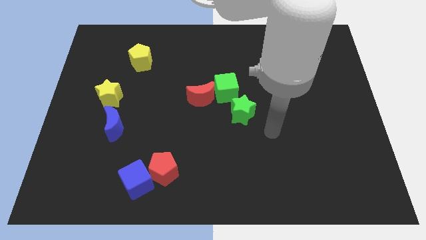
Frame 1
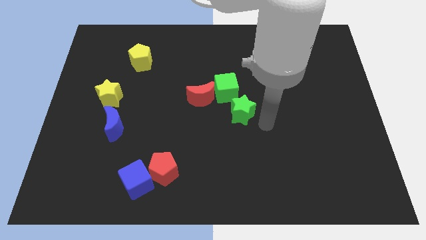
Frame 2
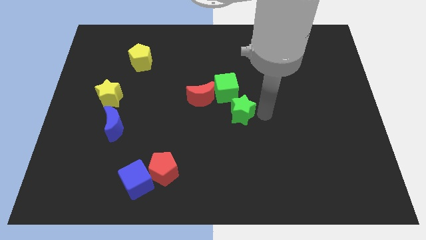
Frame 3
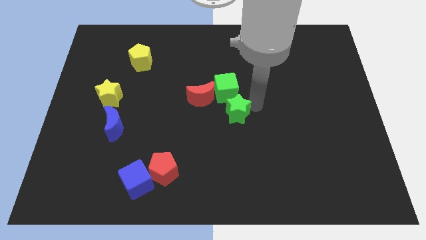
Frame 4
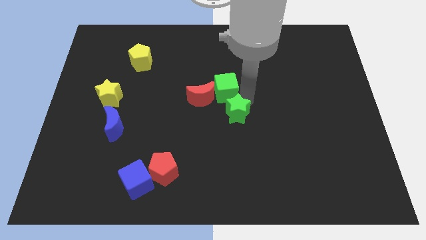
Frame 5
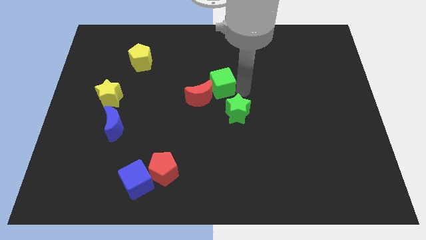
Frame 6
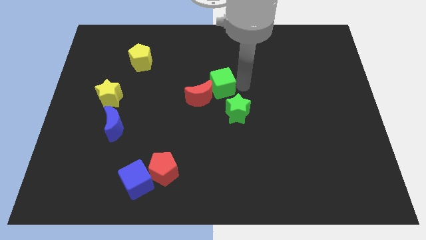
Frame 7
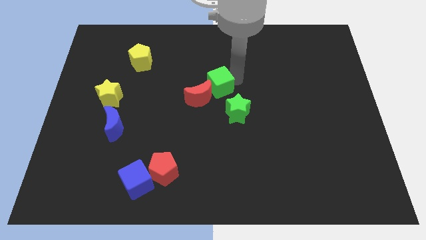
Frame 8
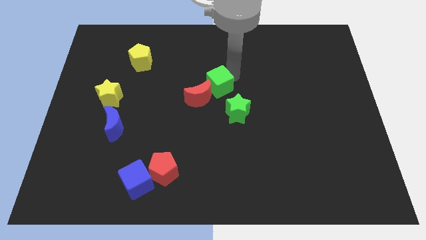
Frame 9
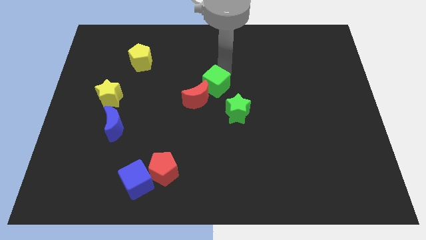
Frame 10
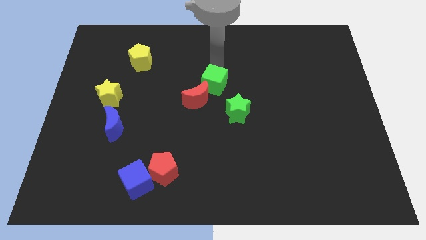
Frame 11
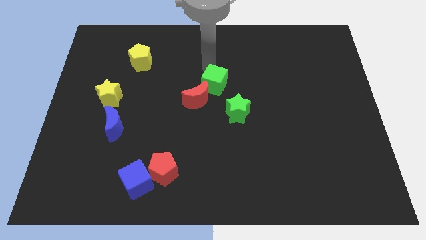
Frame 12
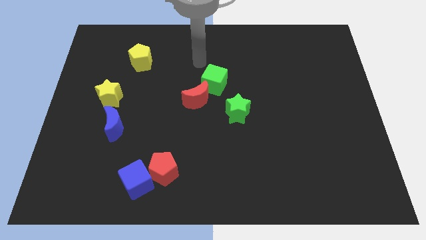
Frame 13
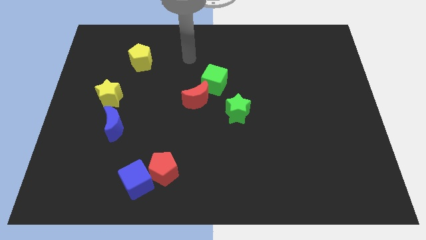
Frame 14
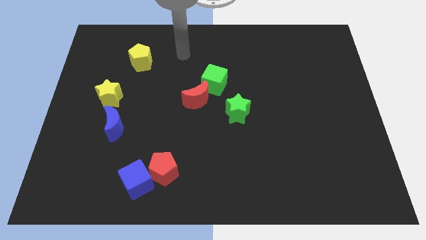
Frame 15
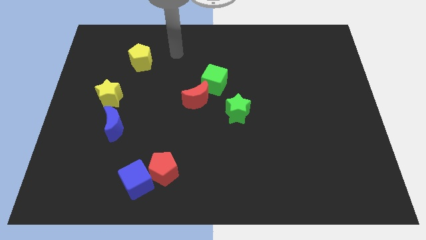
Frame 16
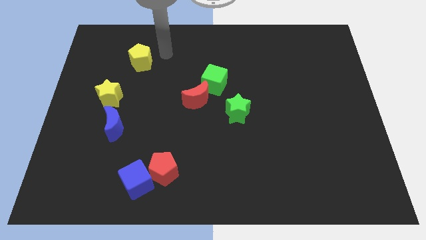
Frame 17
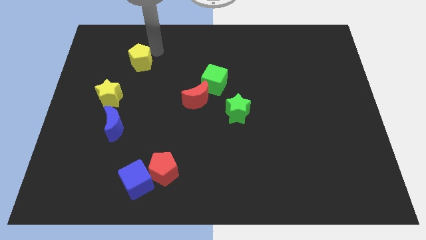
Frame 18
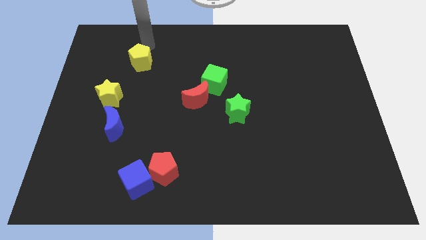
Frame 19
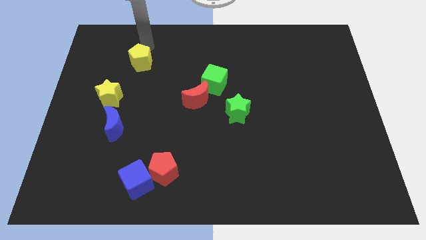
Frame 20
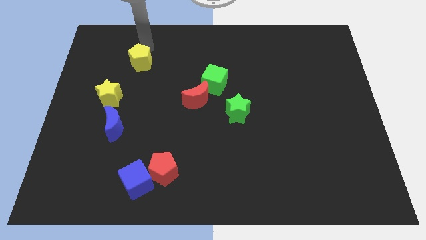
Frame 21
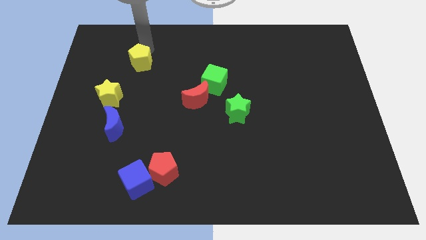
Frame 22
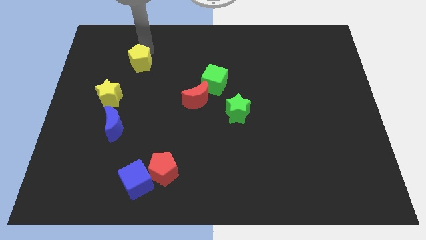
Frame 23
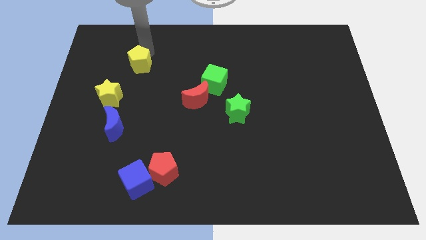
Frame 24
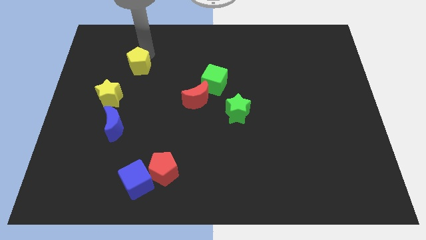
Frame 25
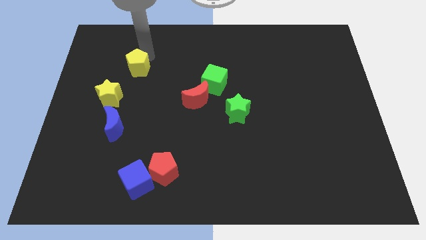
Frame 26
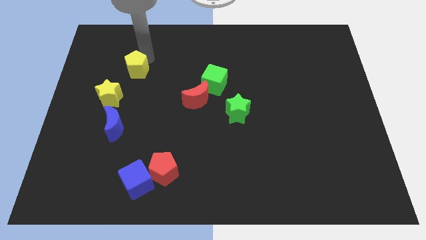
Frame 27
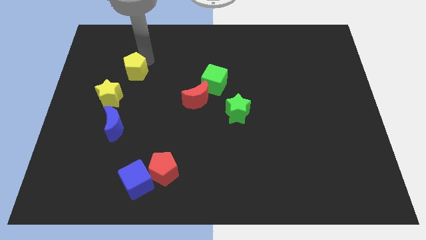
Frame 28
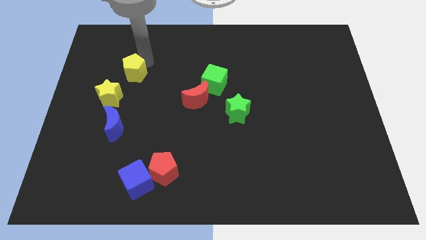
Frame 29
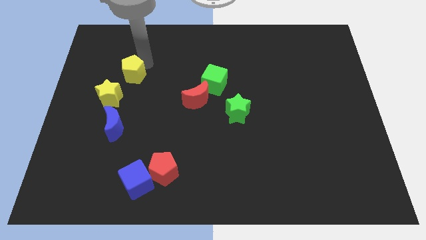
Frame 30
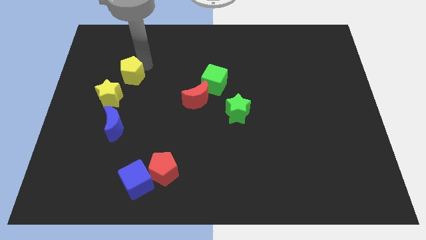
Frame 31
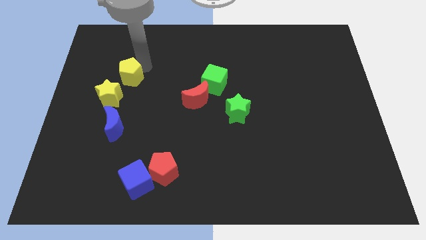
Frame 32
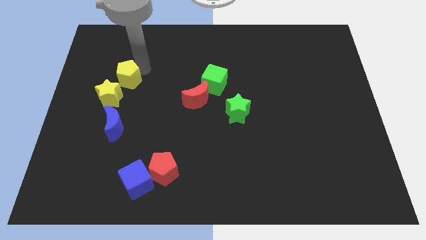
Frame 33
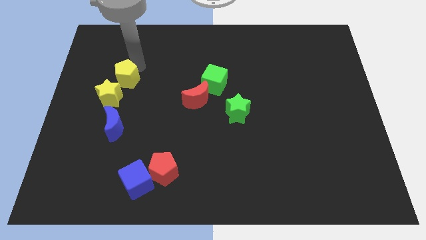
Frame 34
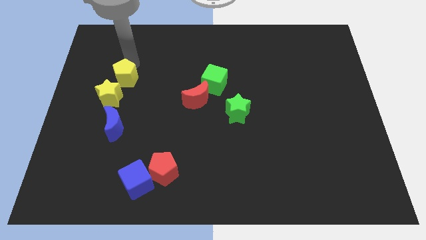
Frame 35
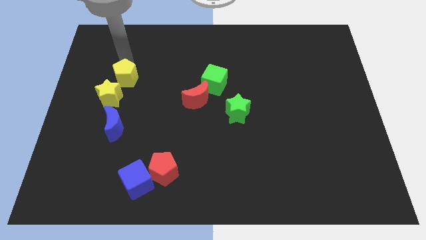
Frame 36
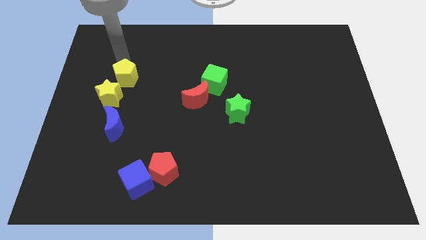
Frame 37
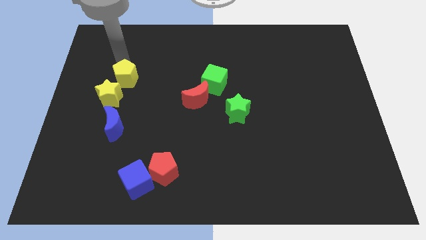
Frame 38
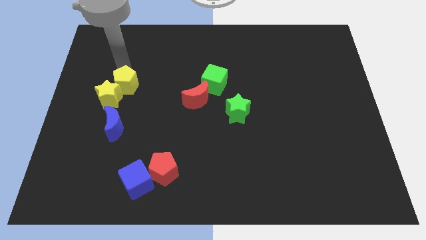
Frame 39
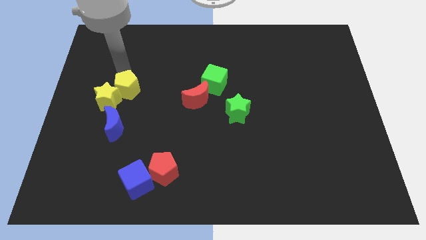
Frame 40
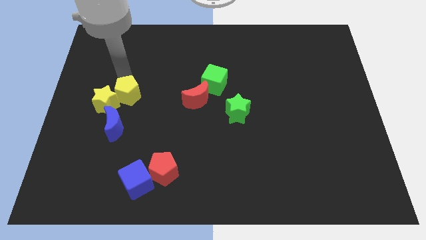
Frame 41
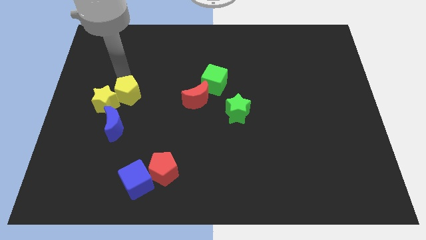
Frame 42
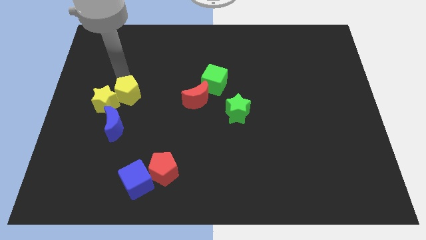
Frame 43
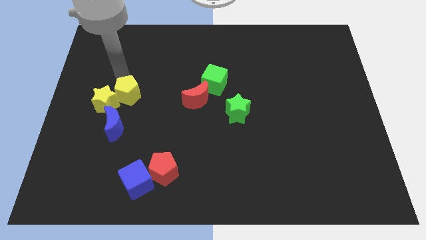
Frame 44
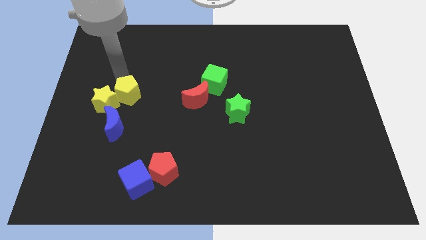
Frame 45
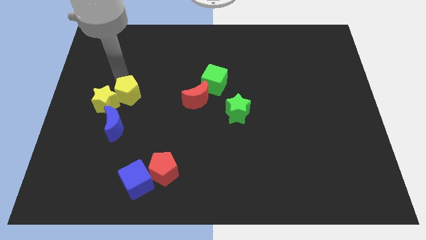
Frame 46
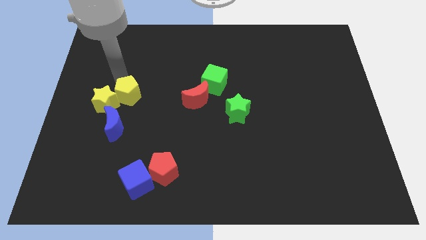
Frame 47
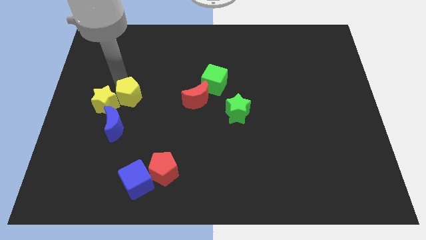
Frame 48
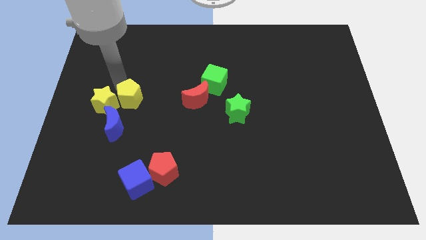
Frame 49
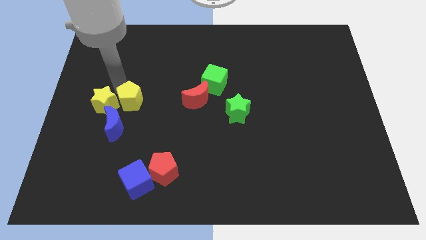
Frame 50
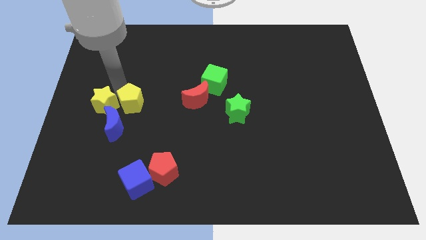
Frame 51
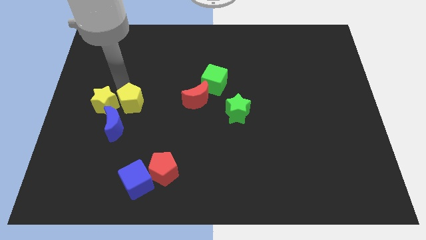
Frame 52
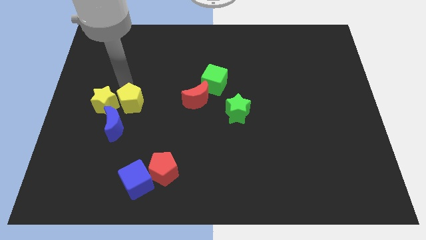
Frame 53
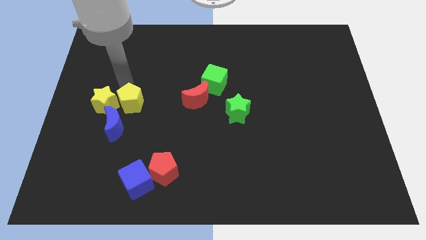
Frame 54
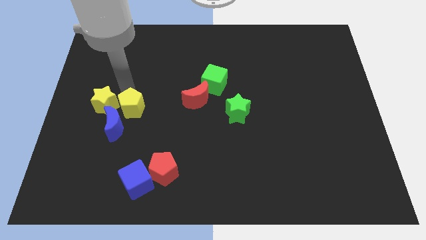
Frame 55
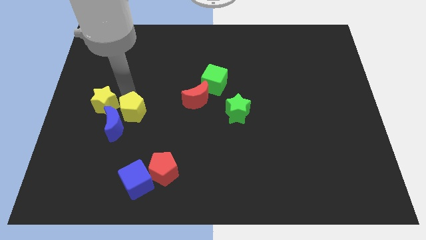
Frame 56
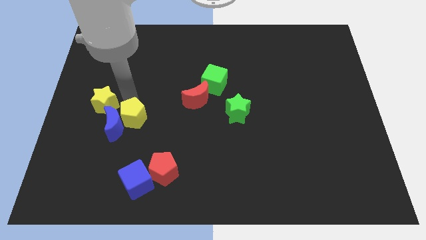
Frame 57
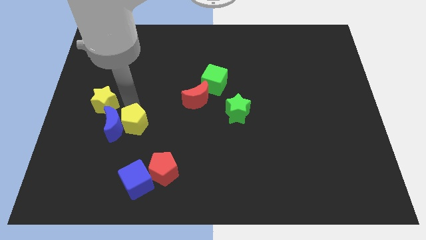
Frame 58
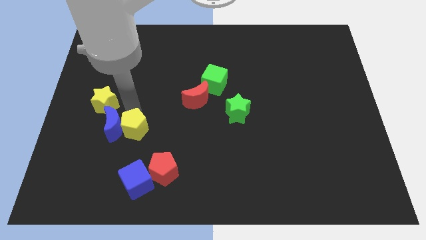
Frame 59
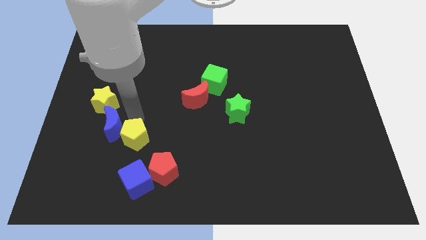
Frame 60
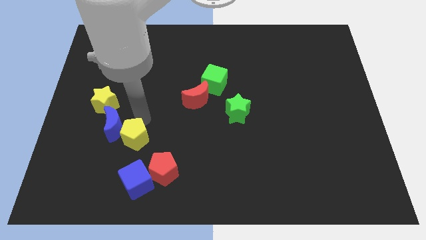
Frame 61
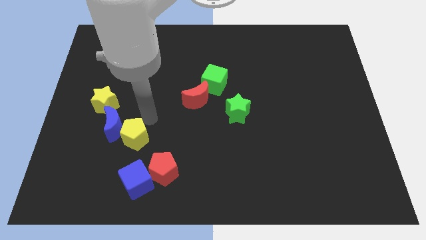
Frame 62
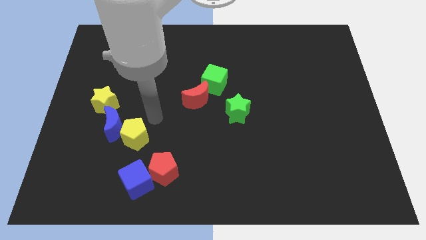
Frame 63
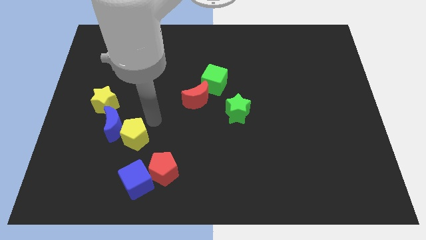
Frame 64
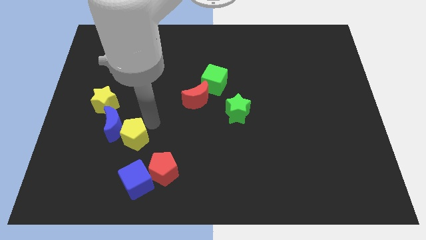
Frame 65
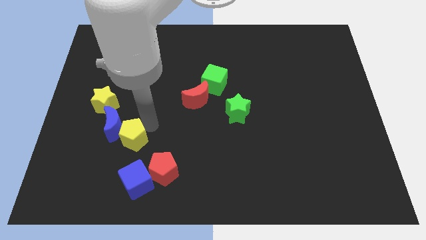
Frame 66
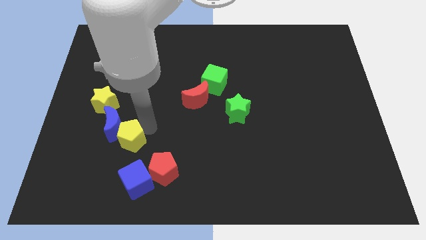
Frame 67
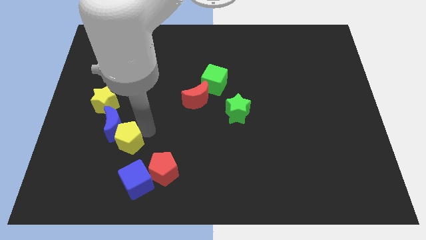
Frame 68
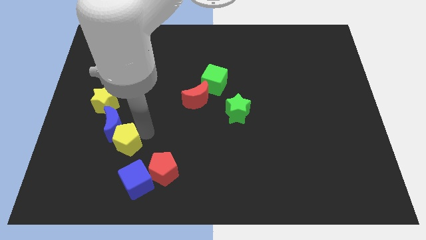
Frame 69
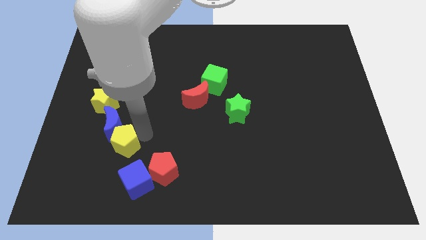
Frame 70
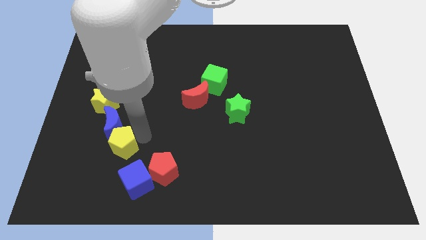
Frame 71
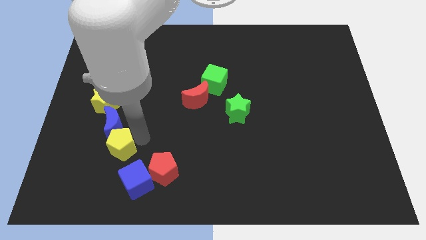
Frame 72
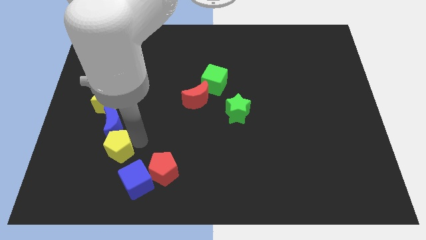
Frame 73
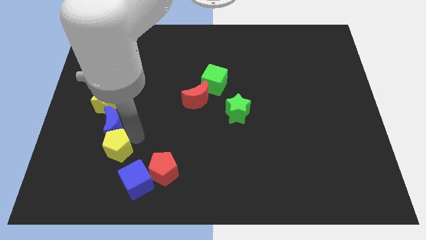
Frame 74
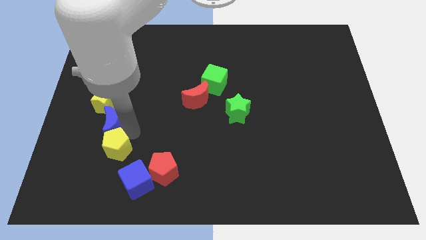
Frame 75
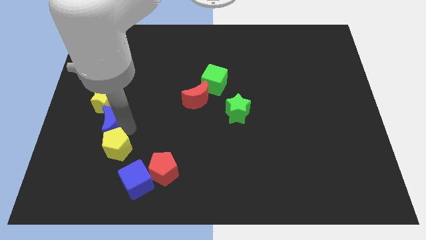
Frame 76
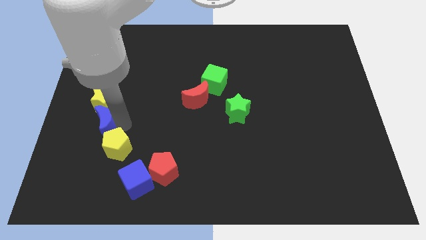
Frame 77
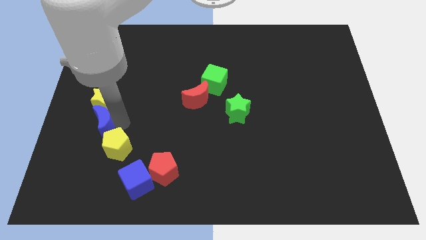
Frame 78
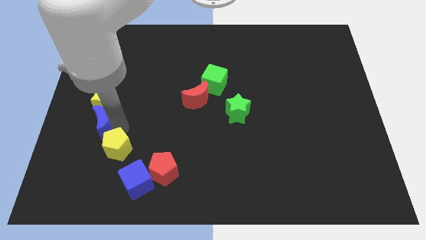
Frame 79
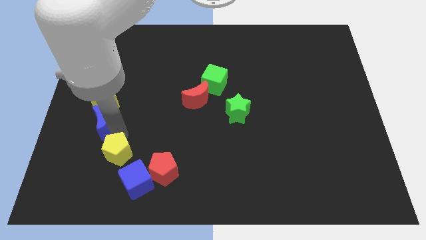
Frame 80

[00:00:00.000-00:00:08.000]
slide the yellow pentagon to the left side of the red pentagon
